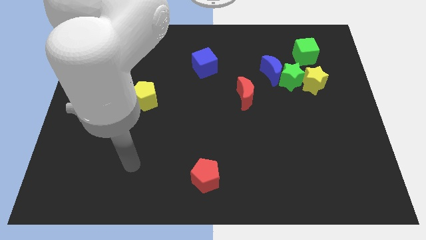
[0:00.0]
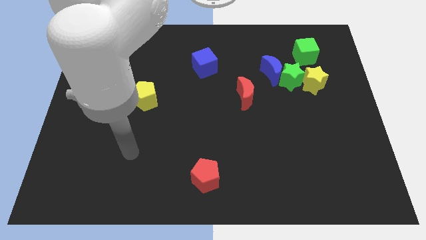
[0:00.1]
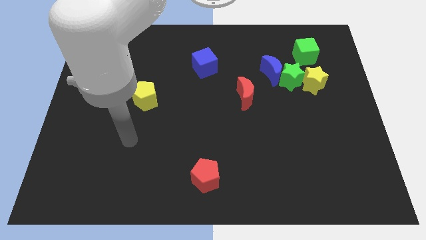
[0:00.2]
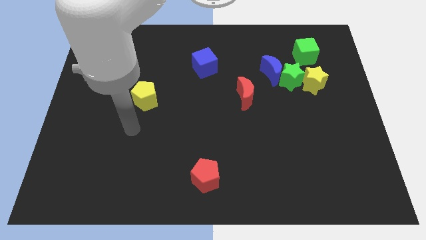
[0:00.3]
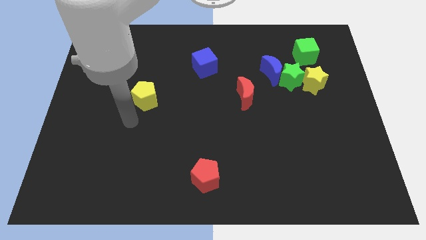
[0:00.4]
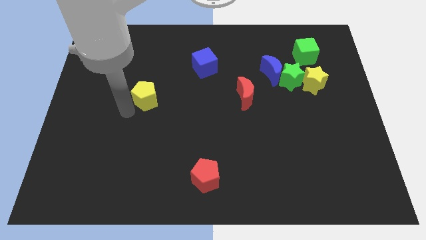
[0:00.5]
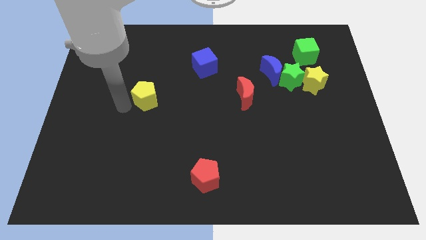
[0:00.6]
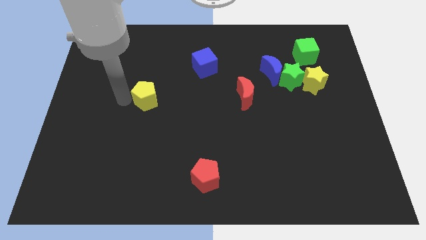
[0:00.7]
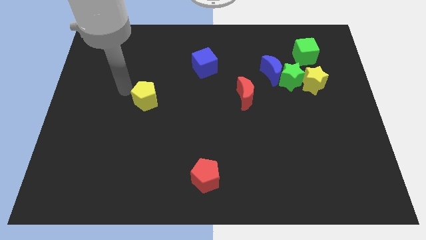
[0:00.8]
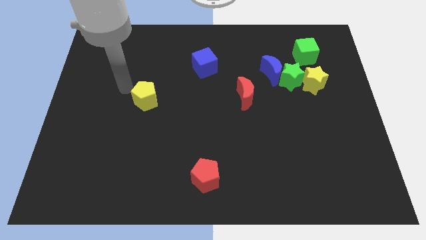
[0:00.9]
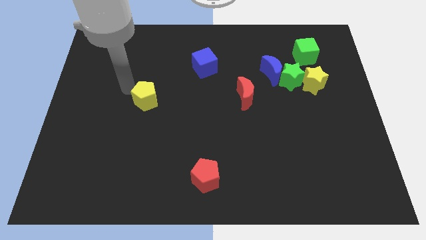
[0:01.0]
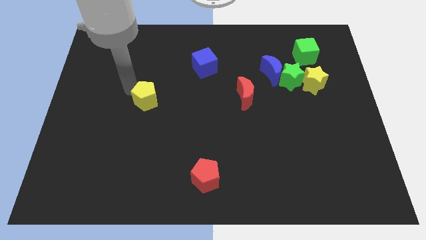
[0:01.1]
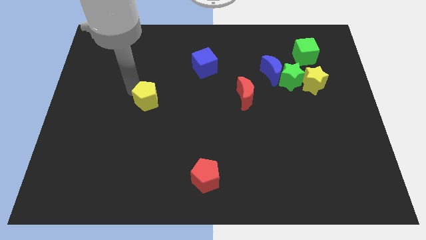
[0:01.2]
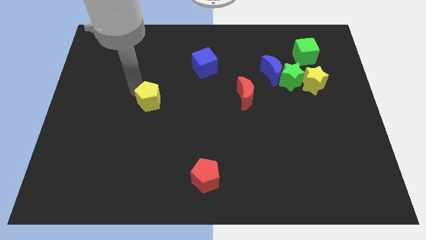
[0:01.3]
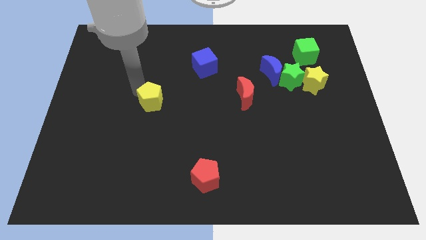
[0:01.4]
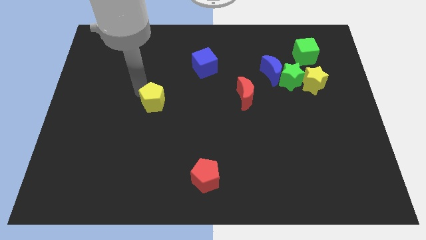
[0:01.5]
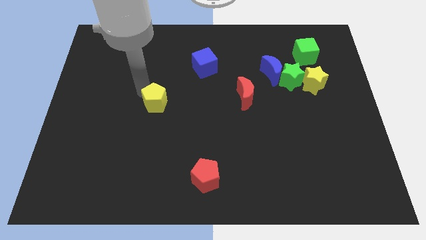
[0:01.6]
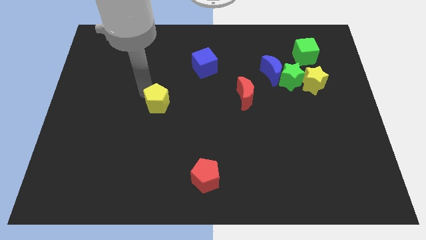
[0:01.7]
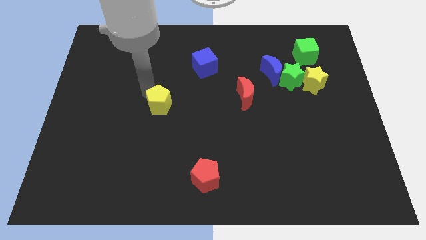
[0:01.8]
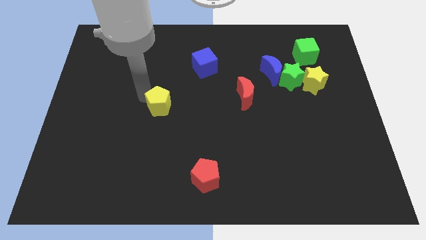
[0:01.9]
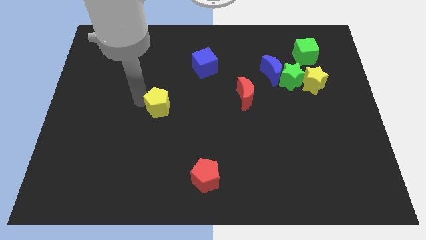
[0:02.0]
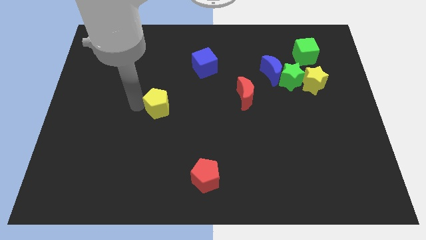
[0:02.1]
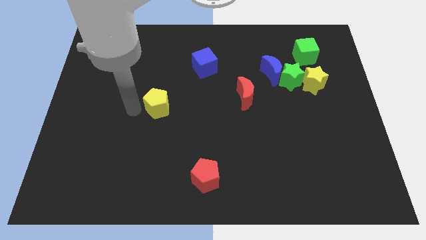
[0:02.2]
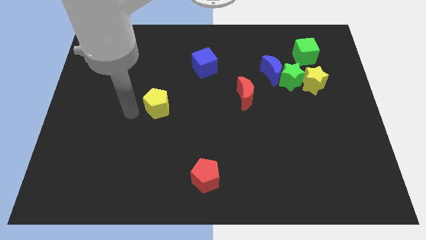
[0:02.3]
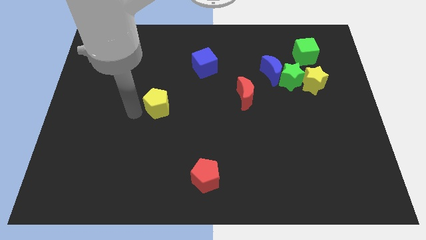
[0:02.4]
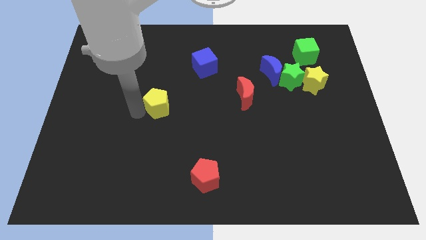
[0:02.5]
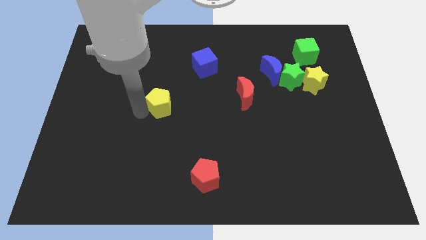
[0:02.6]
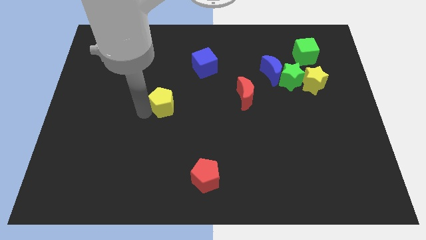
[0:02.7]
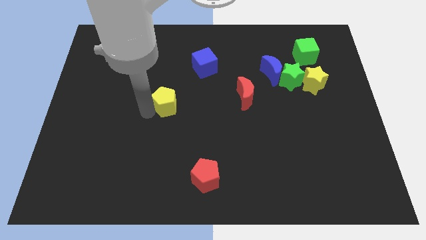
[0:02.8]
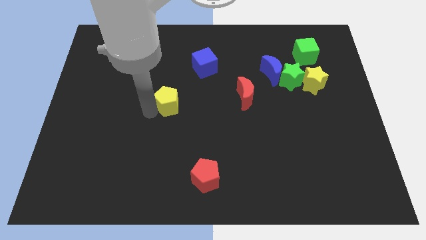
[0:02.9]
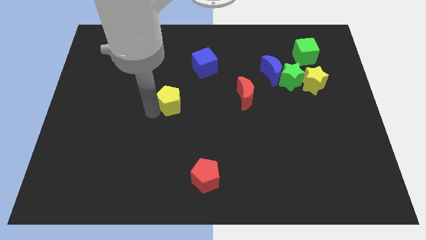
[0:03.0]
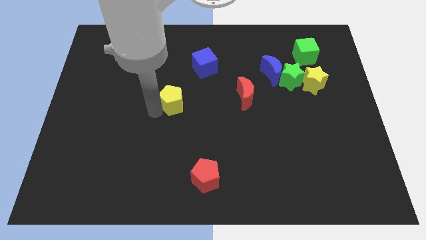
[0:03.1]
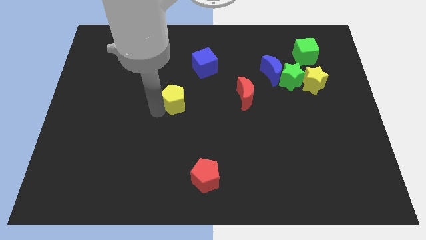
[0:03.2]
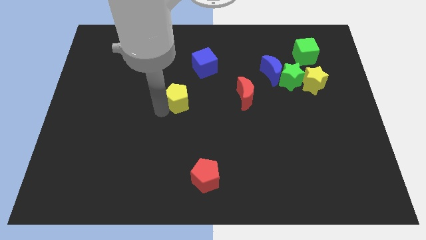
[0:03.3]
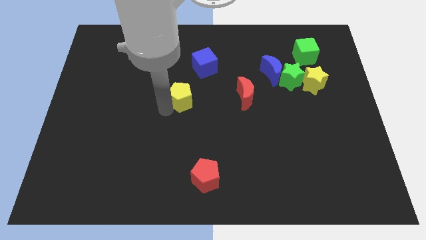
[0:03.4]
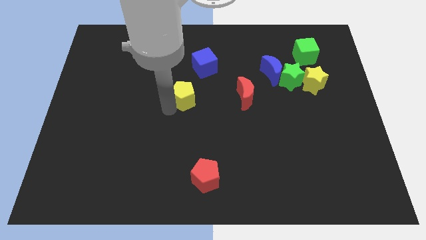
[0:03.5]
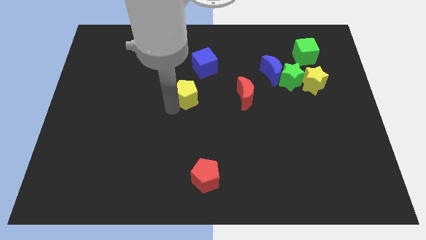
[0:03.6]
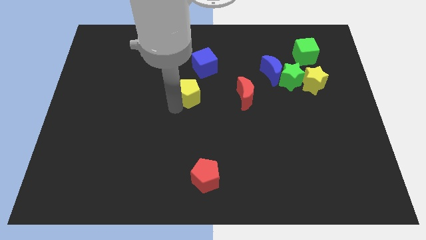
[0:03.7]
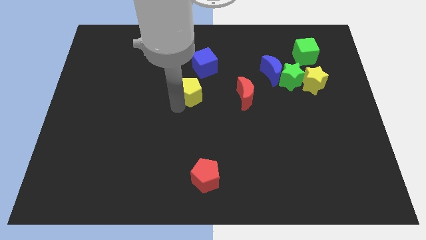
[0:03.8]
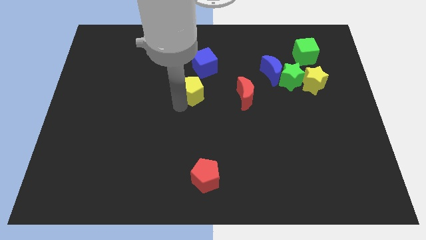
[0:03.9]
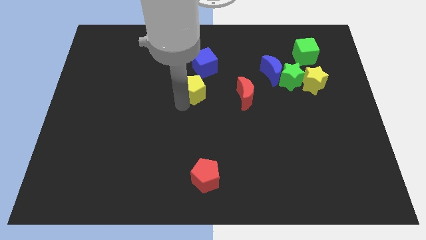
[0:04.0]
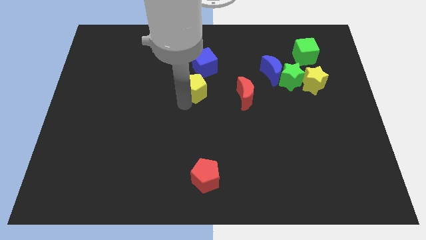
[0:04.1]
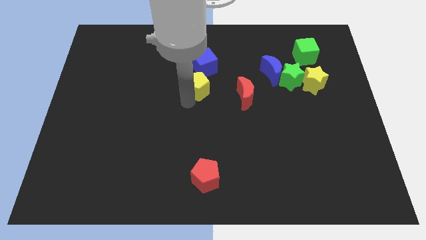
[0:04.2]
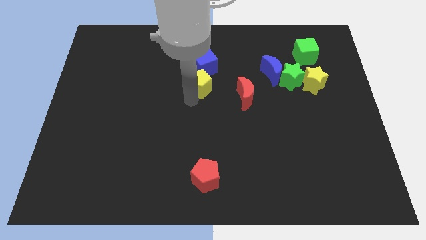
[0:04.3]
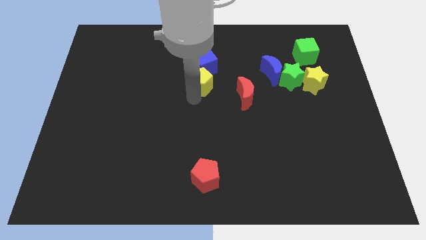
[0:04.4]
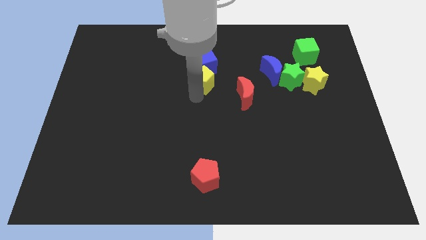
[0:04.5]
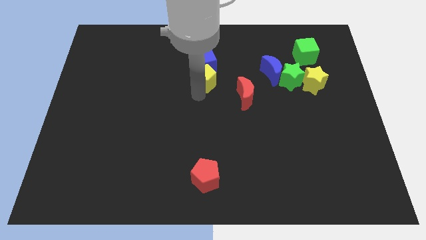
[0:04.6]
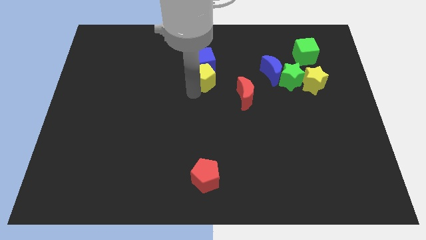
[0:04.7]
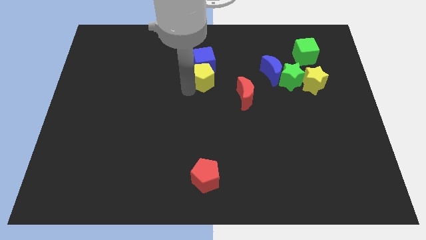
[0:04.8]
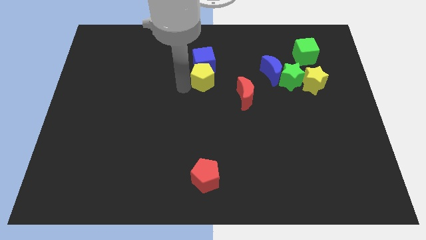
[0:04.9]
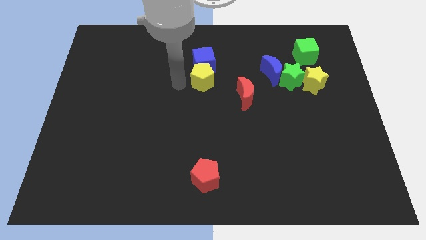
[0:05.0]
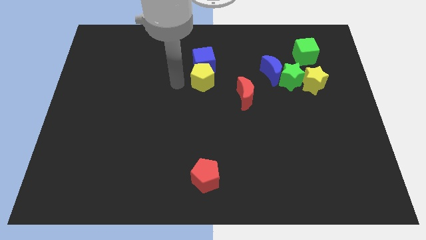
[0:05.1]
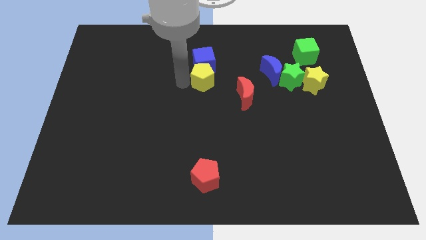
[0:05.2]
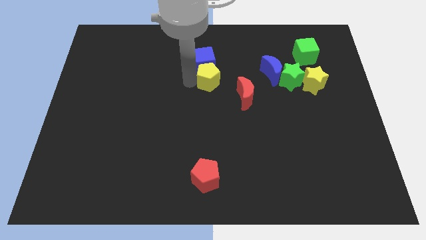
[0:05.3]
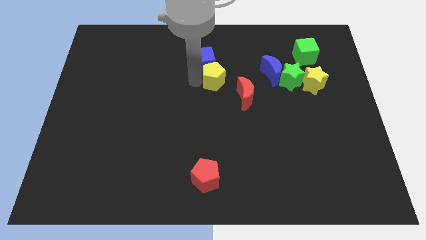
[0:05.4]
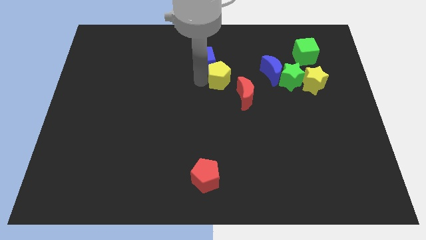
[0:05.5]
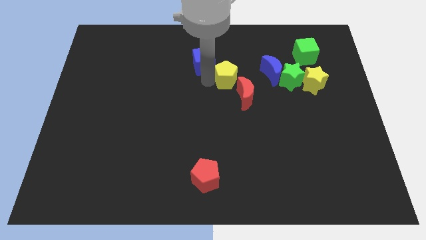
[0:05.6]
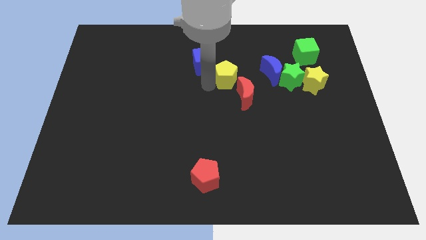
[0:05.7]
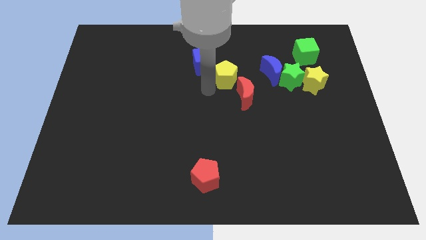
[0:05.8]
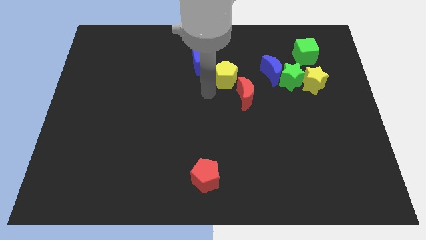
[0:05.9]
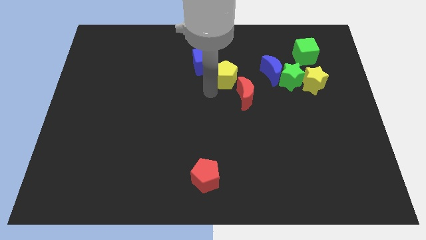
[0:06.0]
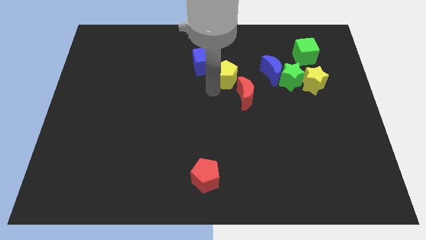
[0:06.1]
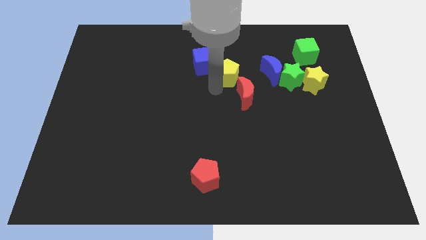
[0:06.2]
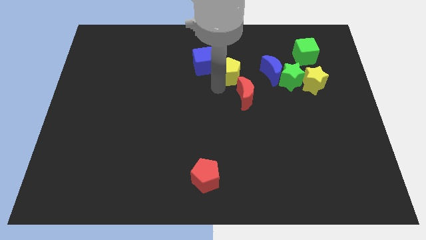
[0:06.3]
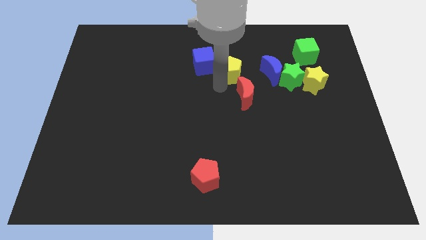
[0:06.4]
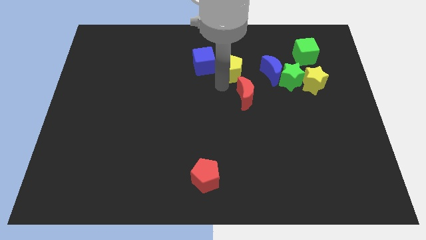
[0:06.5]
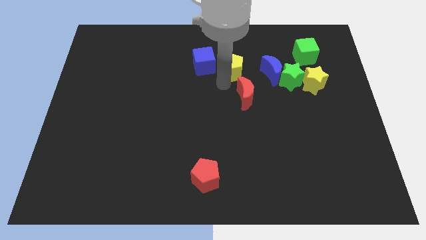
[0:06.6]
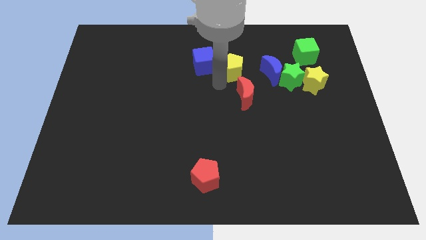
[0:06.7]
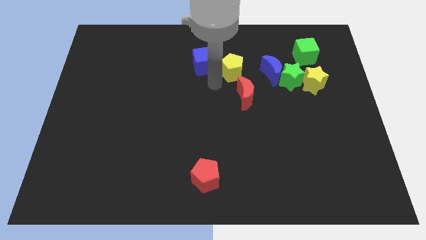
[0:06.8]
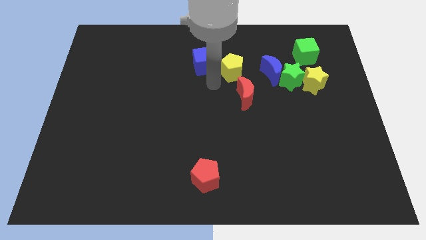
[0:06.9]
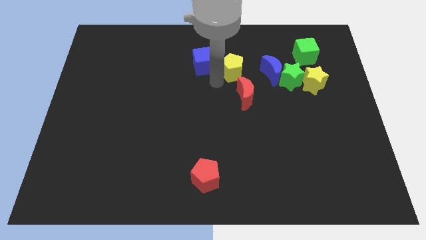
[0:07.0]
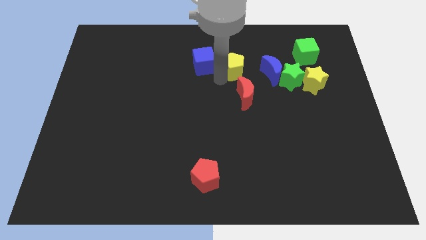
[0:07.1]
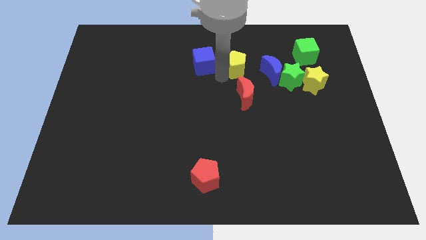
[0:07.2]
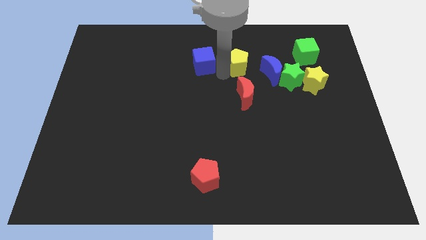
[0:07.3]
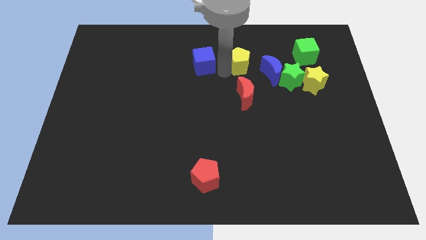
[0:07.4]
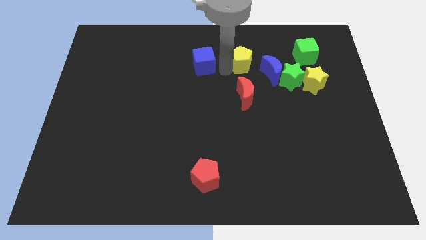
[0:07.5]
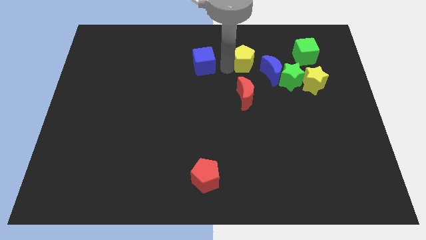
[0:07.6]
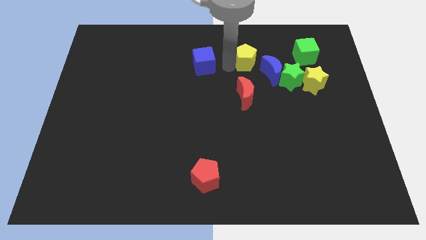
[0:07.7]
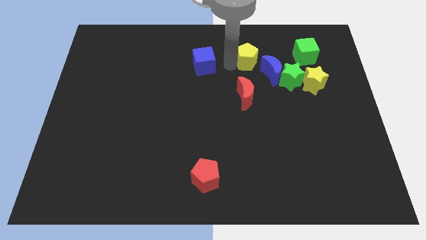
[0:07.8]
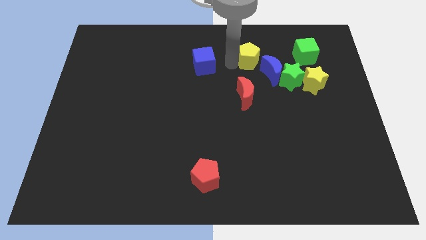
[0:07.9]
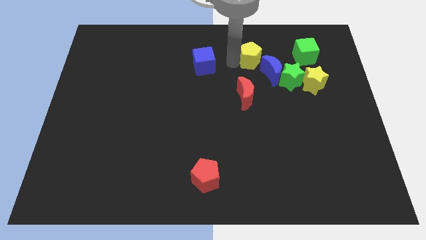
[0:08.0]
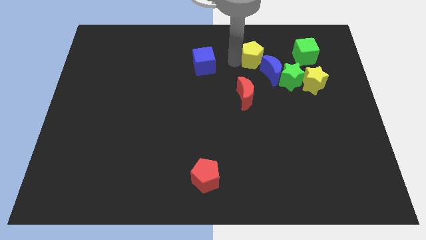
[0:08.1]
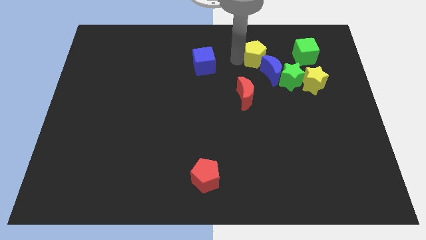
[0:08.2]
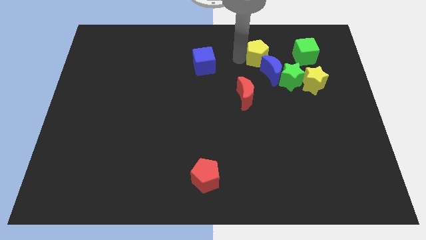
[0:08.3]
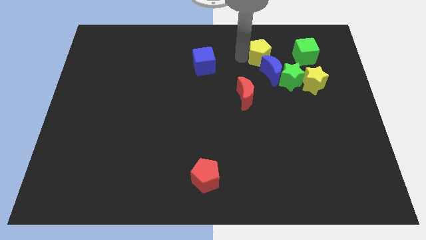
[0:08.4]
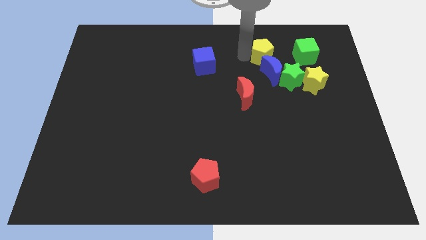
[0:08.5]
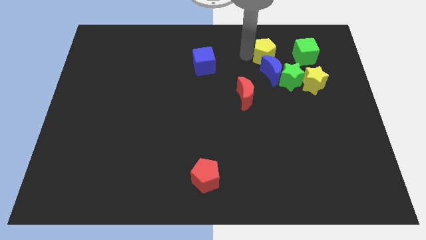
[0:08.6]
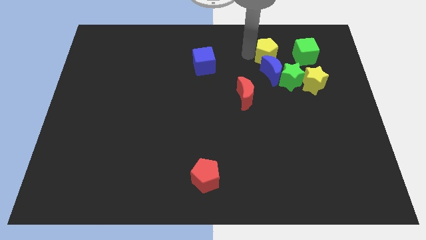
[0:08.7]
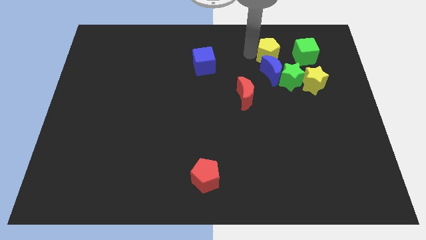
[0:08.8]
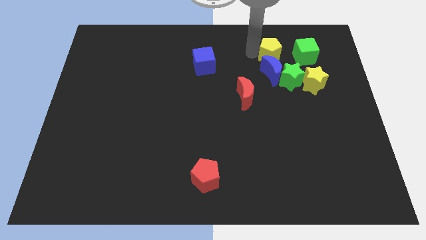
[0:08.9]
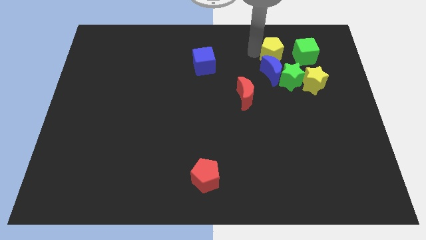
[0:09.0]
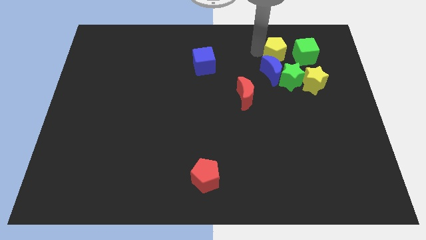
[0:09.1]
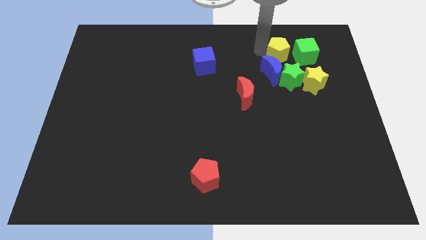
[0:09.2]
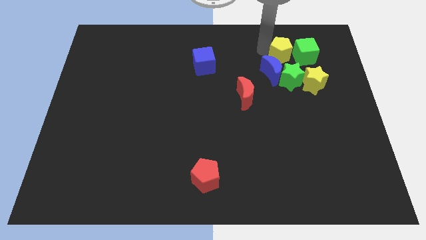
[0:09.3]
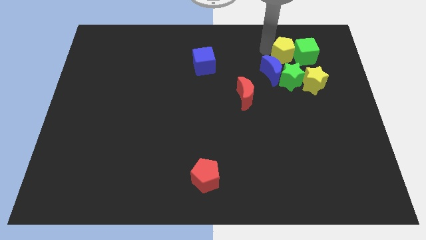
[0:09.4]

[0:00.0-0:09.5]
move the yellow pentagon next to the green cube
